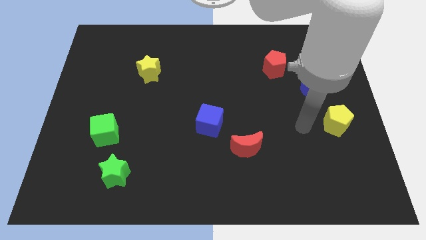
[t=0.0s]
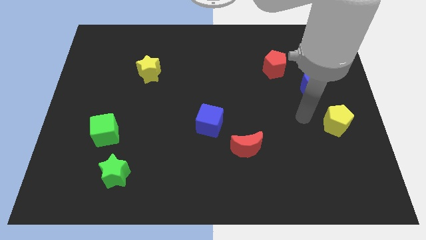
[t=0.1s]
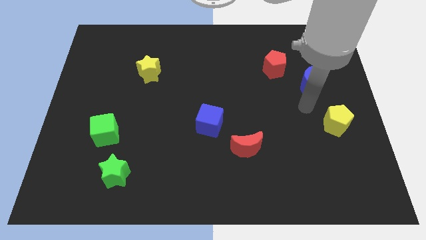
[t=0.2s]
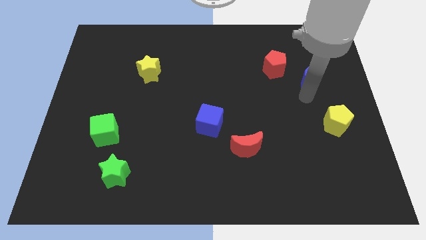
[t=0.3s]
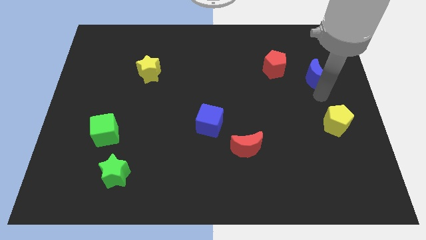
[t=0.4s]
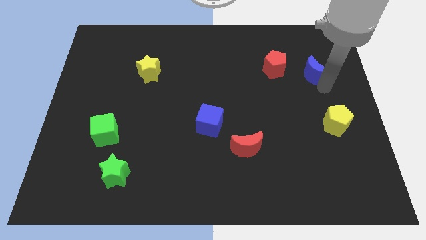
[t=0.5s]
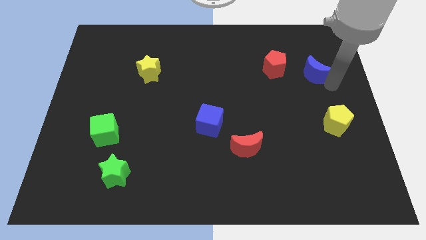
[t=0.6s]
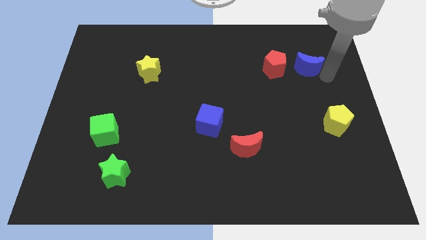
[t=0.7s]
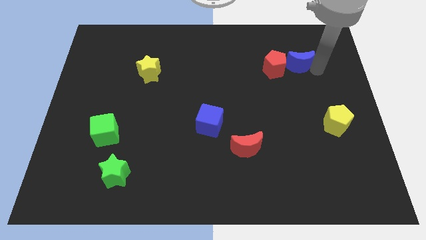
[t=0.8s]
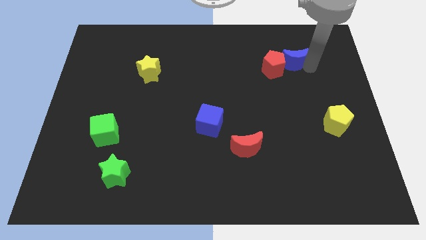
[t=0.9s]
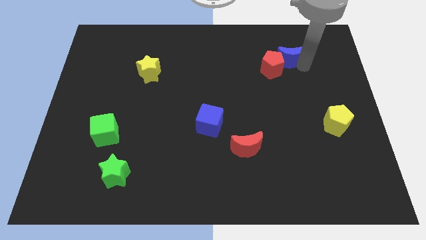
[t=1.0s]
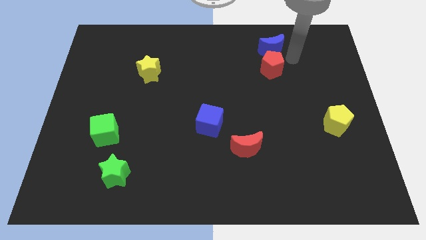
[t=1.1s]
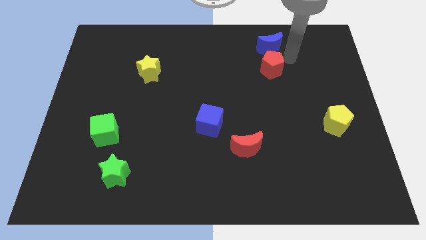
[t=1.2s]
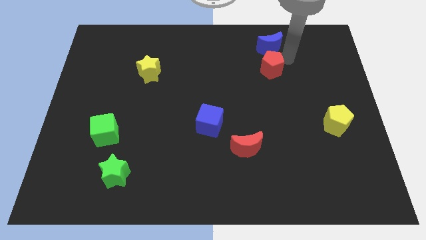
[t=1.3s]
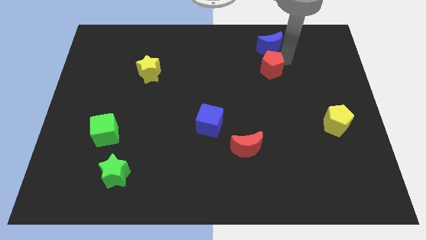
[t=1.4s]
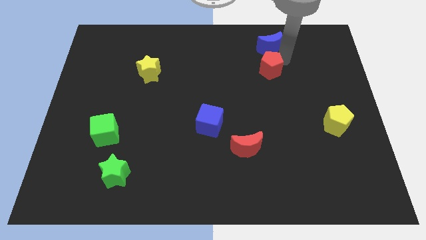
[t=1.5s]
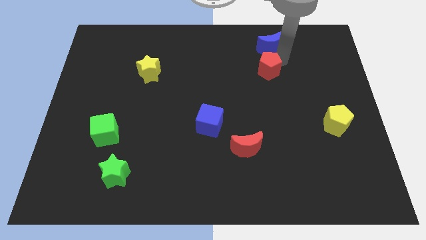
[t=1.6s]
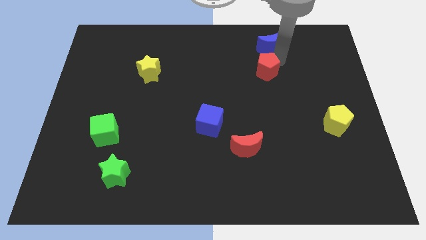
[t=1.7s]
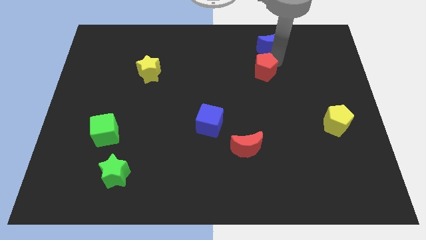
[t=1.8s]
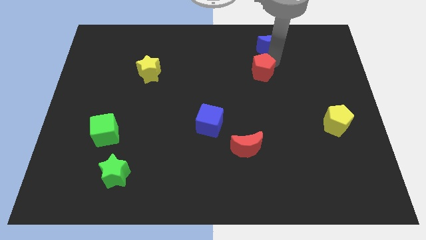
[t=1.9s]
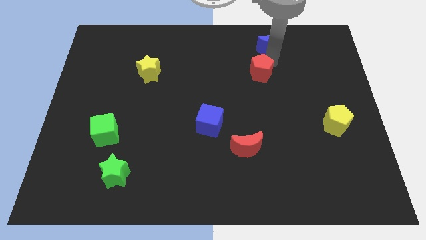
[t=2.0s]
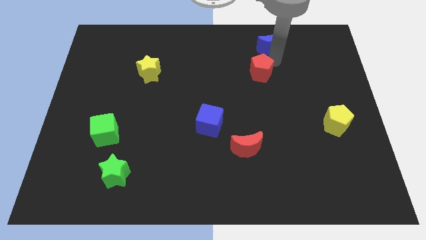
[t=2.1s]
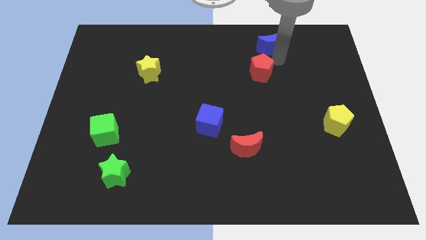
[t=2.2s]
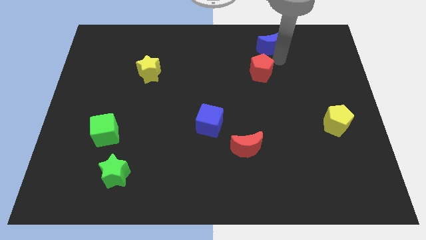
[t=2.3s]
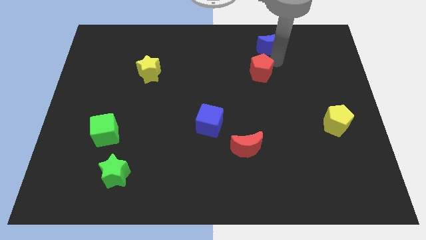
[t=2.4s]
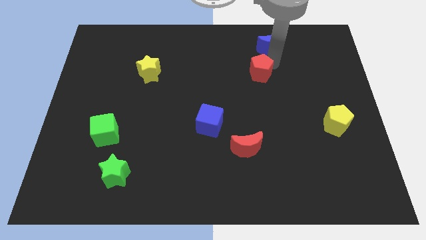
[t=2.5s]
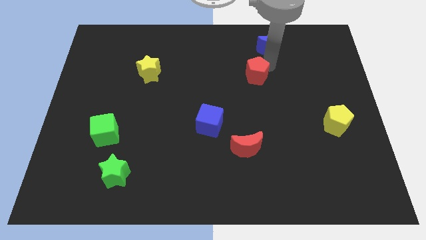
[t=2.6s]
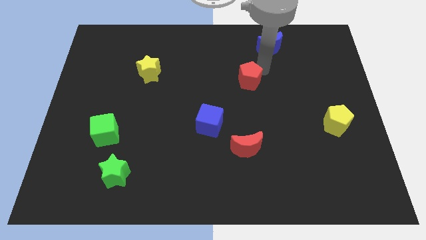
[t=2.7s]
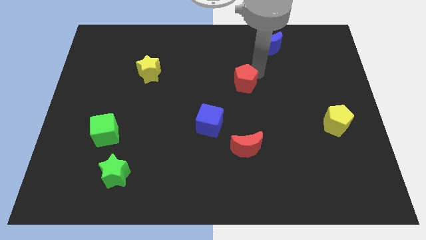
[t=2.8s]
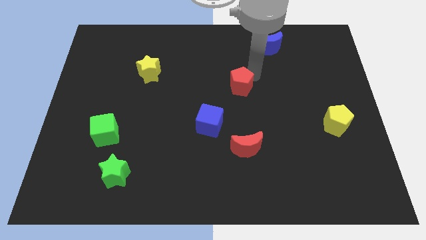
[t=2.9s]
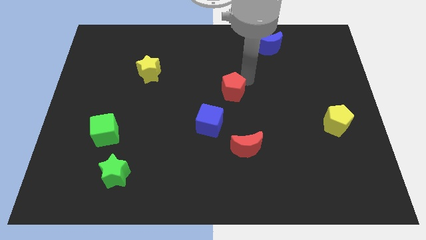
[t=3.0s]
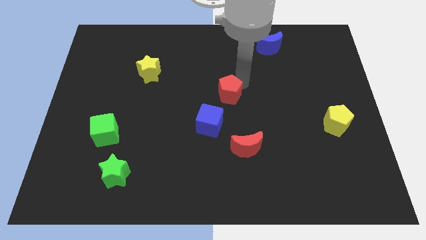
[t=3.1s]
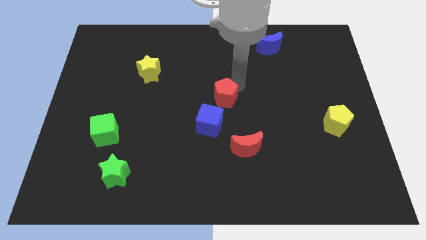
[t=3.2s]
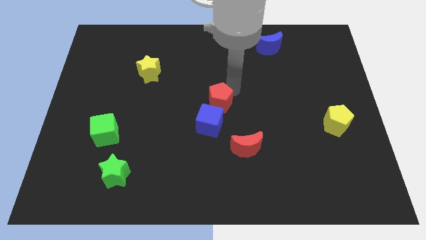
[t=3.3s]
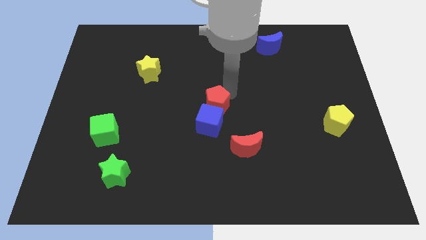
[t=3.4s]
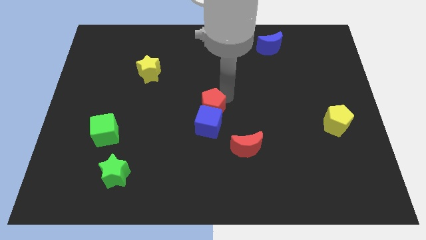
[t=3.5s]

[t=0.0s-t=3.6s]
slide the red pentagon diagonally down and left

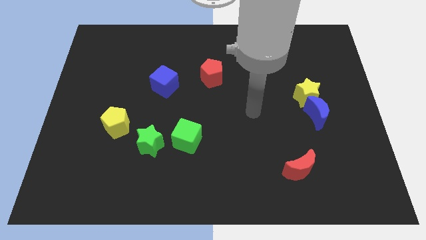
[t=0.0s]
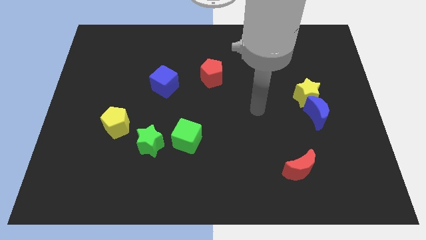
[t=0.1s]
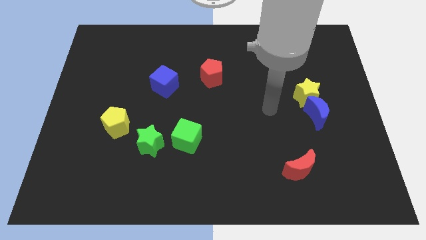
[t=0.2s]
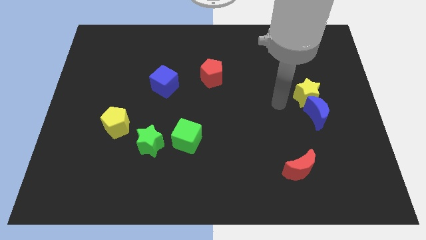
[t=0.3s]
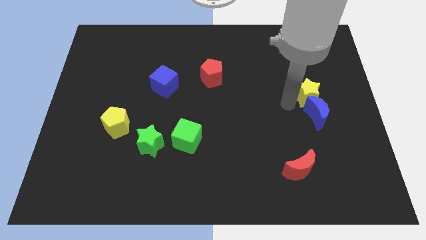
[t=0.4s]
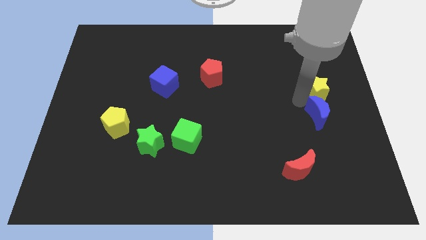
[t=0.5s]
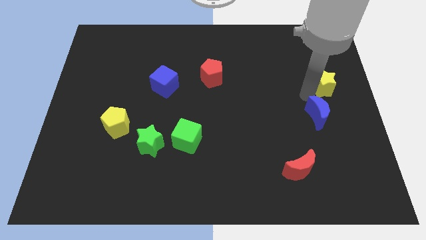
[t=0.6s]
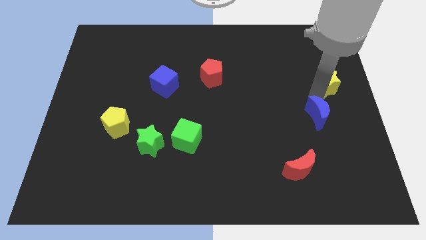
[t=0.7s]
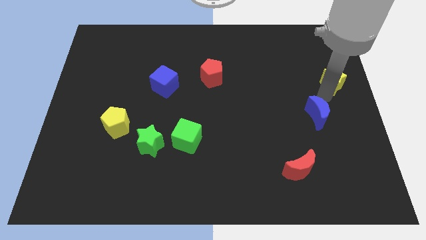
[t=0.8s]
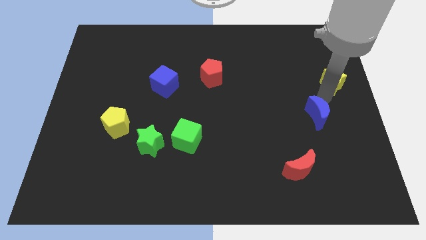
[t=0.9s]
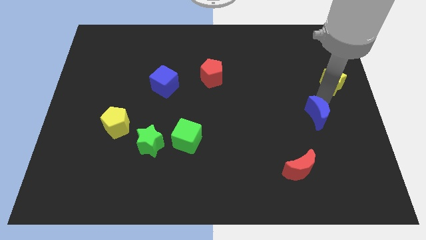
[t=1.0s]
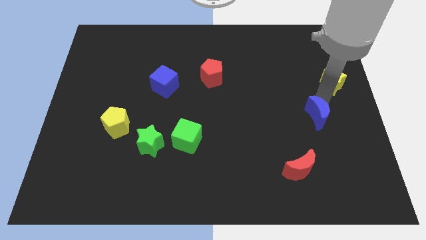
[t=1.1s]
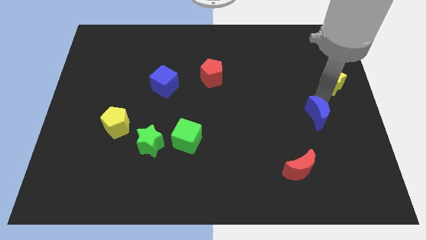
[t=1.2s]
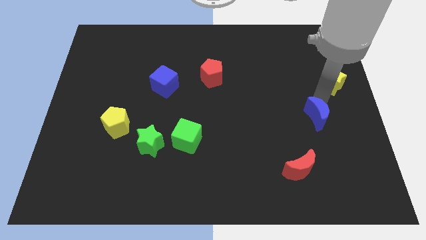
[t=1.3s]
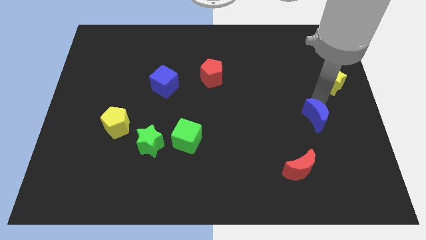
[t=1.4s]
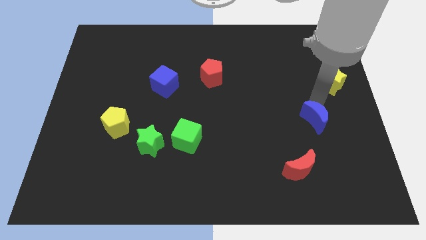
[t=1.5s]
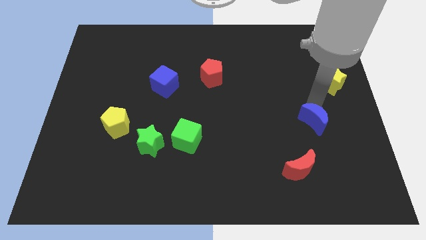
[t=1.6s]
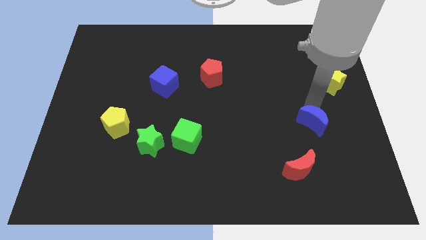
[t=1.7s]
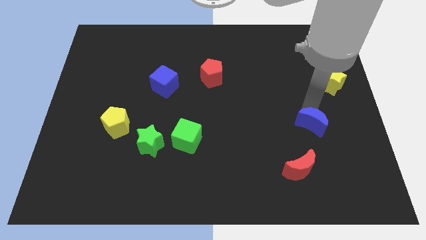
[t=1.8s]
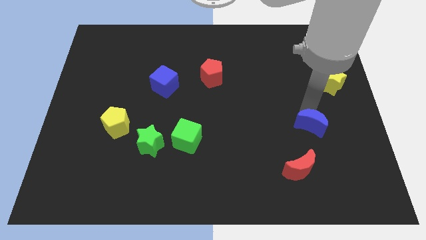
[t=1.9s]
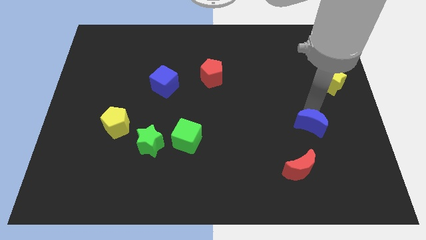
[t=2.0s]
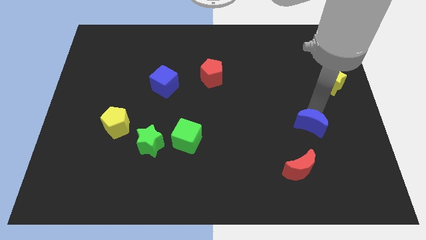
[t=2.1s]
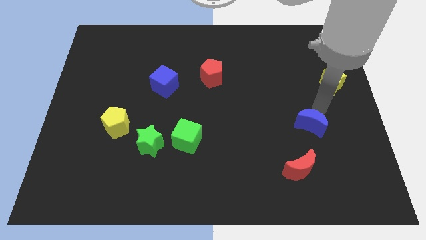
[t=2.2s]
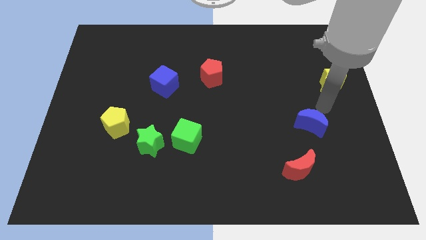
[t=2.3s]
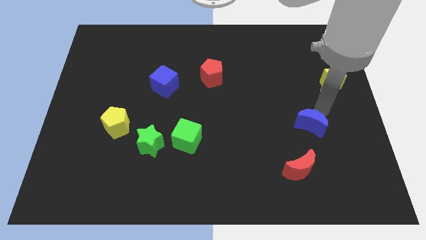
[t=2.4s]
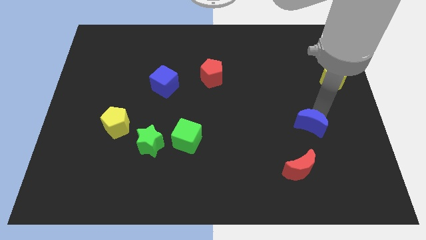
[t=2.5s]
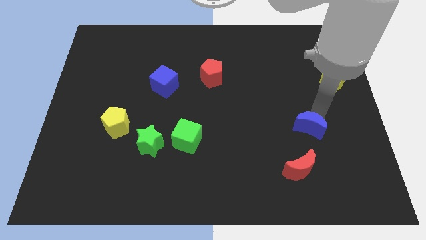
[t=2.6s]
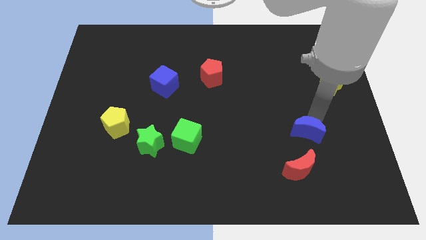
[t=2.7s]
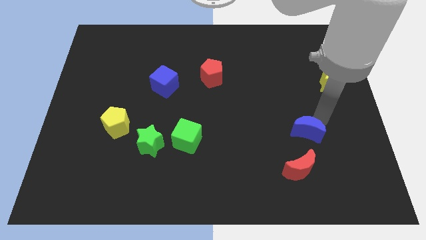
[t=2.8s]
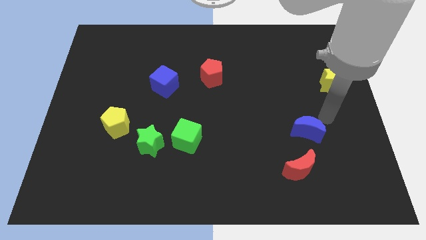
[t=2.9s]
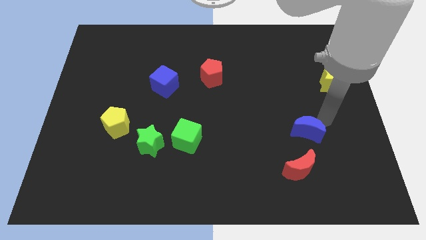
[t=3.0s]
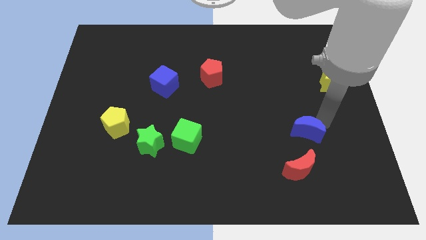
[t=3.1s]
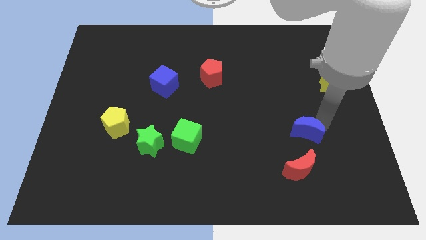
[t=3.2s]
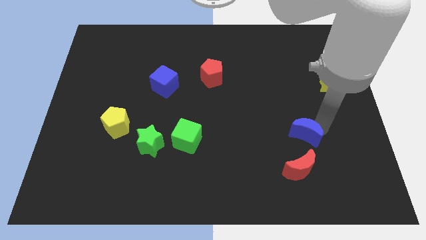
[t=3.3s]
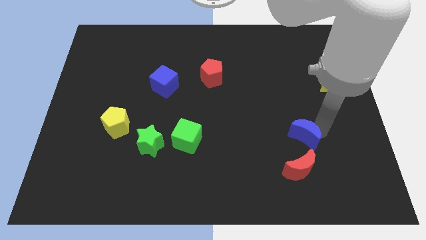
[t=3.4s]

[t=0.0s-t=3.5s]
move the blue moon down and to the left somewhat

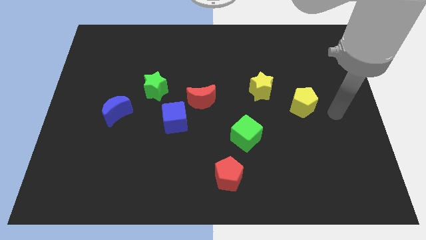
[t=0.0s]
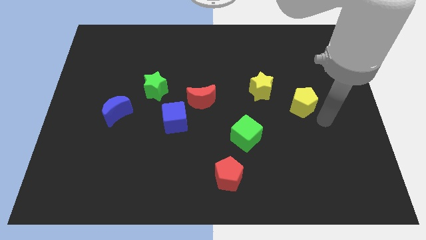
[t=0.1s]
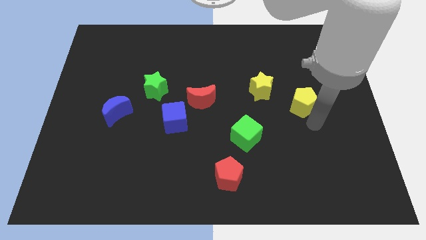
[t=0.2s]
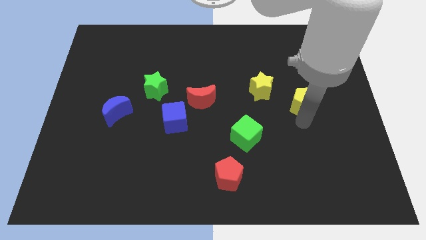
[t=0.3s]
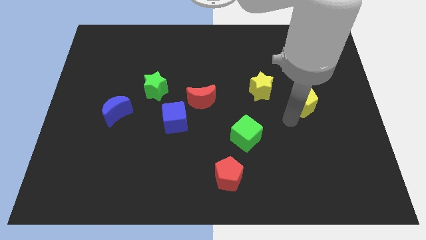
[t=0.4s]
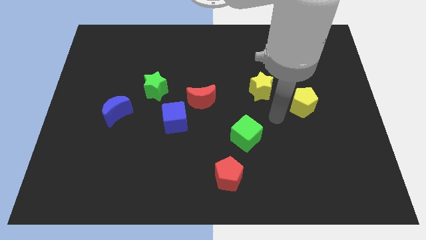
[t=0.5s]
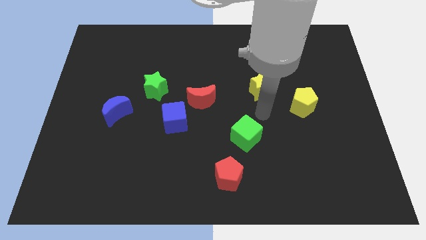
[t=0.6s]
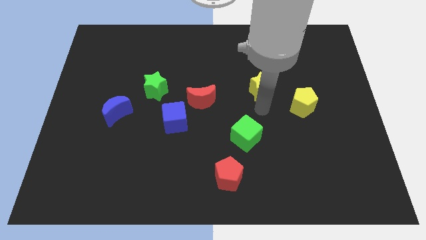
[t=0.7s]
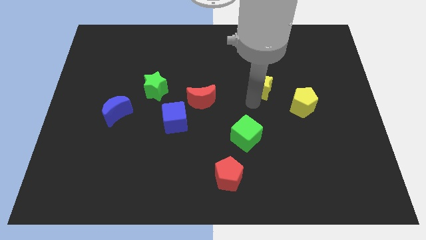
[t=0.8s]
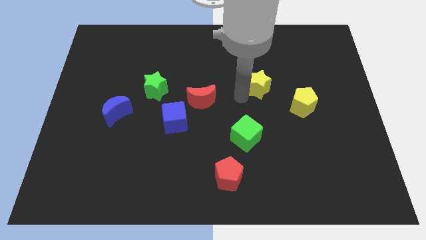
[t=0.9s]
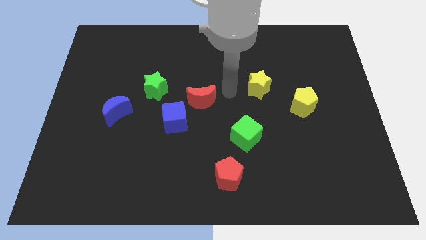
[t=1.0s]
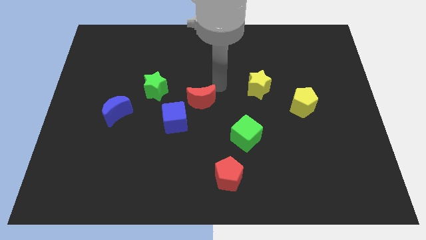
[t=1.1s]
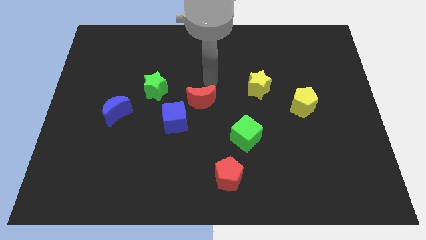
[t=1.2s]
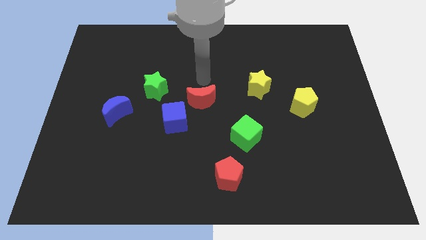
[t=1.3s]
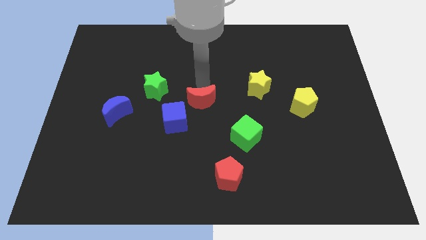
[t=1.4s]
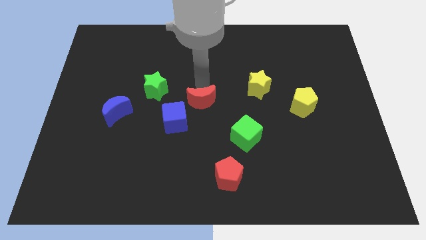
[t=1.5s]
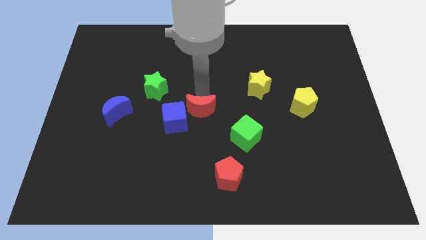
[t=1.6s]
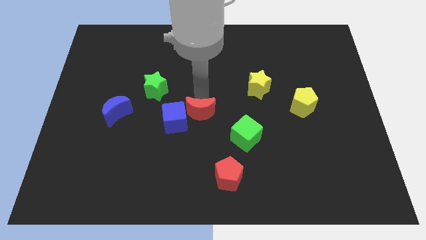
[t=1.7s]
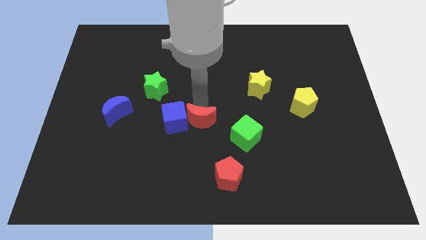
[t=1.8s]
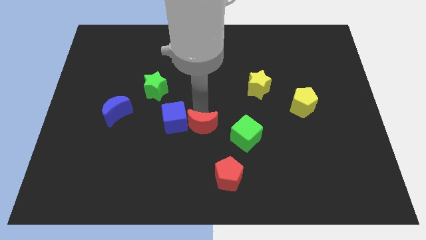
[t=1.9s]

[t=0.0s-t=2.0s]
move the red moon a little bit downwards
